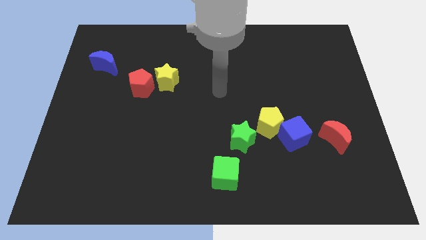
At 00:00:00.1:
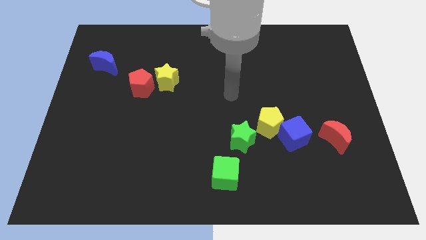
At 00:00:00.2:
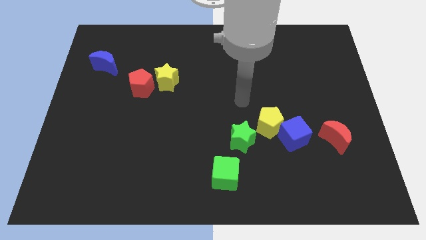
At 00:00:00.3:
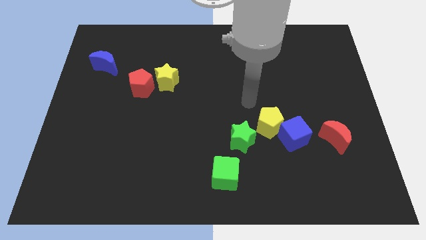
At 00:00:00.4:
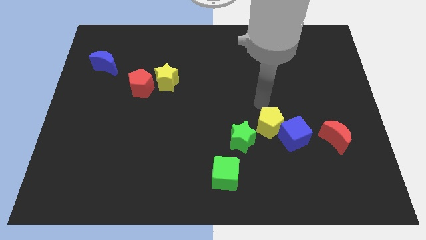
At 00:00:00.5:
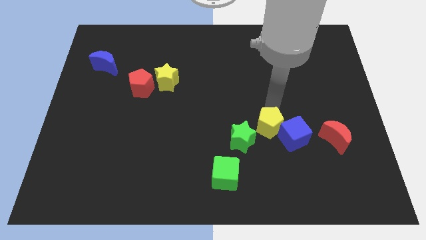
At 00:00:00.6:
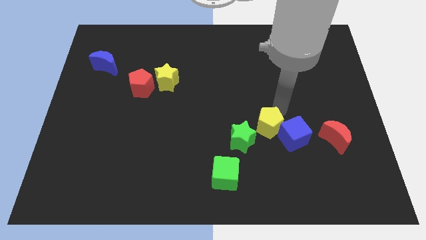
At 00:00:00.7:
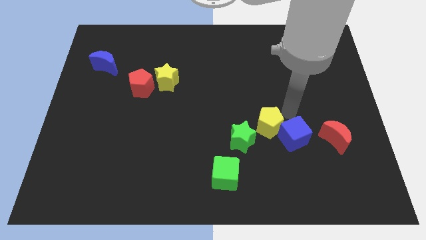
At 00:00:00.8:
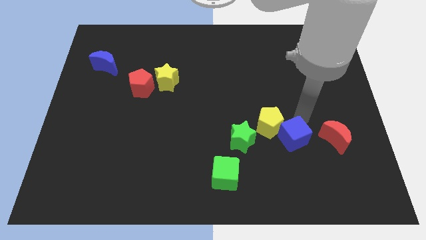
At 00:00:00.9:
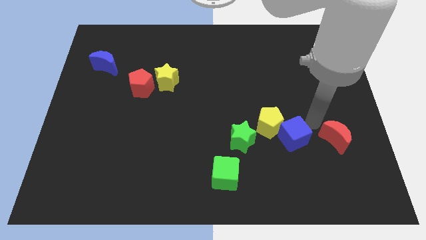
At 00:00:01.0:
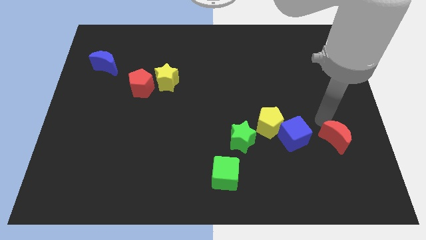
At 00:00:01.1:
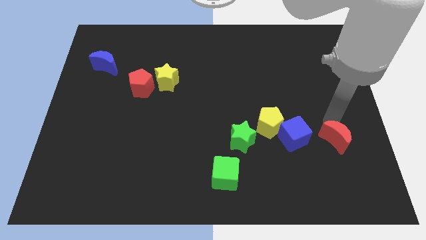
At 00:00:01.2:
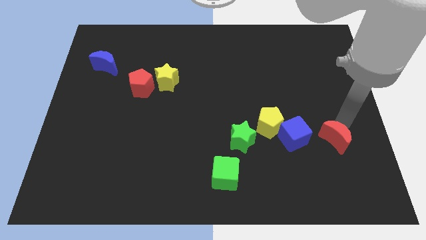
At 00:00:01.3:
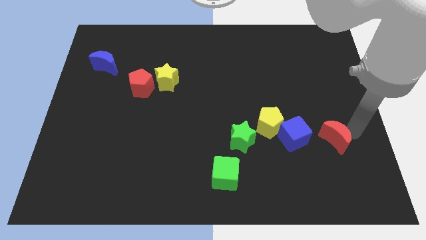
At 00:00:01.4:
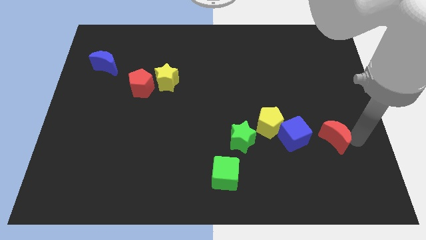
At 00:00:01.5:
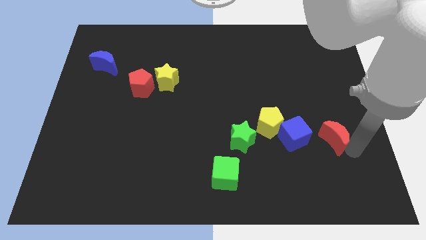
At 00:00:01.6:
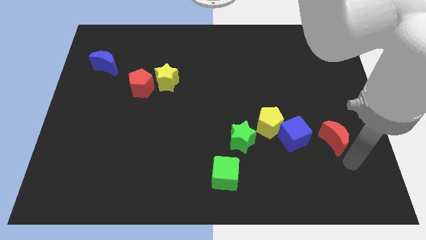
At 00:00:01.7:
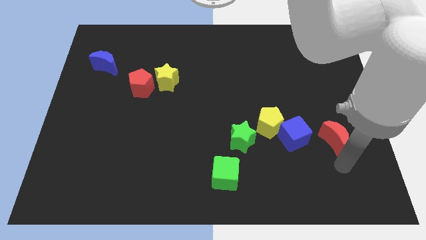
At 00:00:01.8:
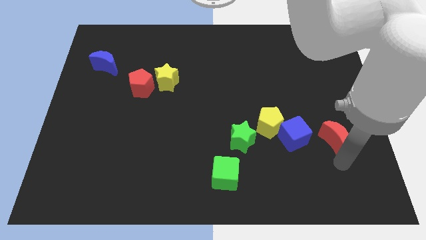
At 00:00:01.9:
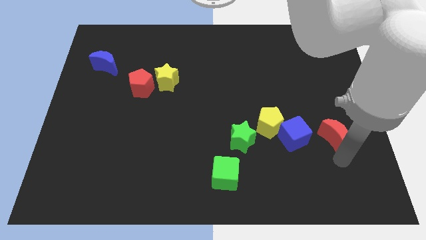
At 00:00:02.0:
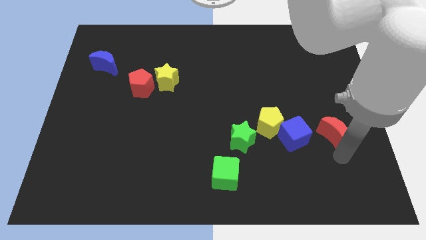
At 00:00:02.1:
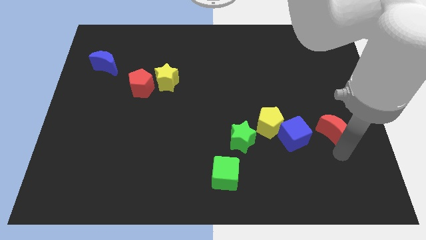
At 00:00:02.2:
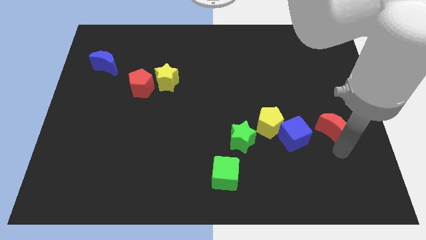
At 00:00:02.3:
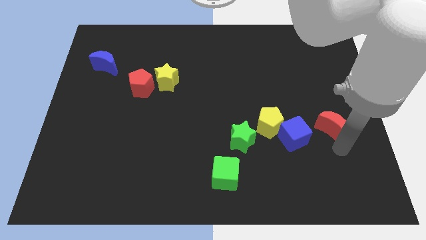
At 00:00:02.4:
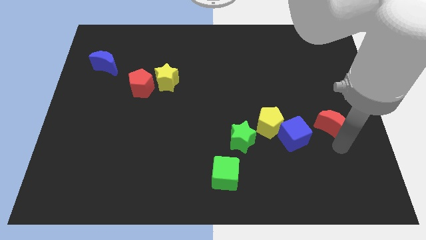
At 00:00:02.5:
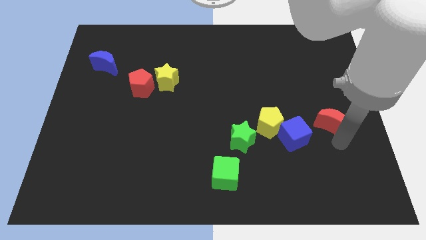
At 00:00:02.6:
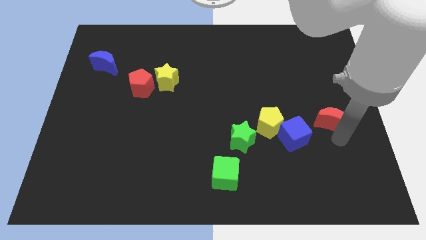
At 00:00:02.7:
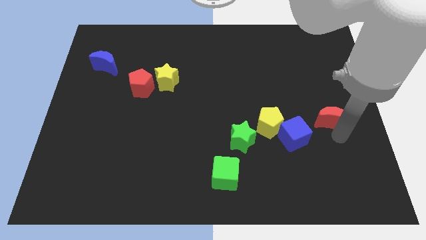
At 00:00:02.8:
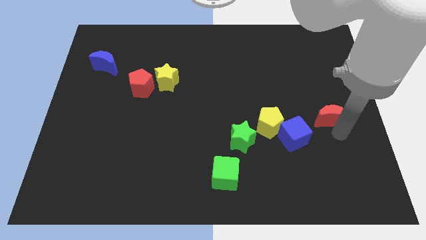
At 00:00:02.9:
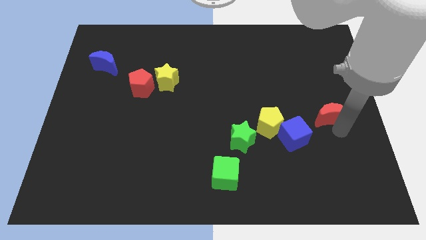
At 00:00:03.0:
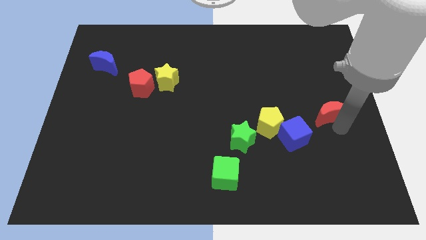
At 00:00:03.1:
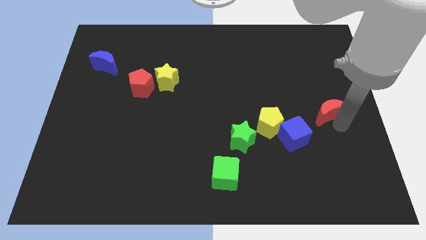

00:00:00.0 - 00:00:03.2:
slide the red moon a little up

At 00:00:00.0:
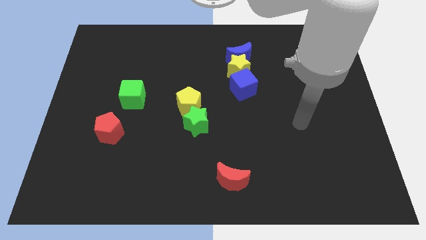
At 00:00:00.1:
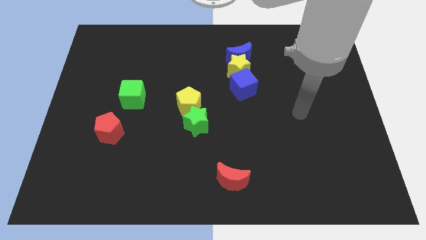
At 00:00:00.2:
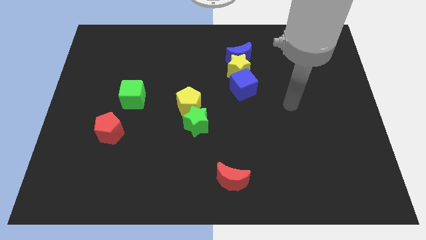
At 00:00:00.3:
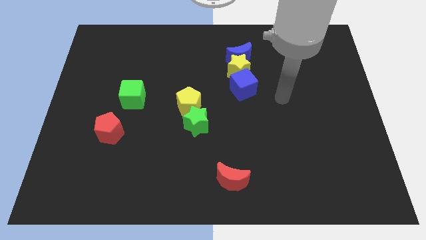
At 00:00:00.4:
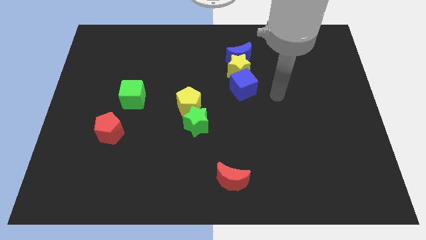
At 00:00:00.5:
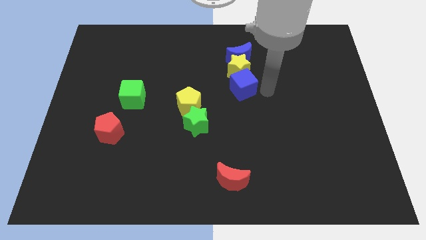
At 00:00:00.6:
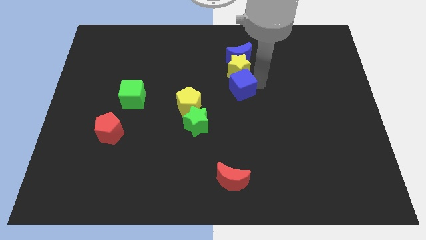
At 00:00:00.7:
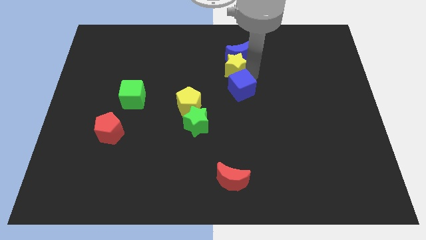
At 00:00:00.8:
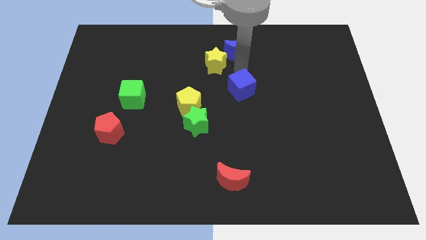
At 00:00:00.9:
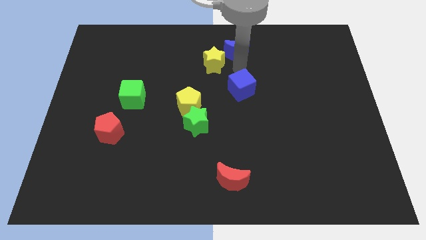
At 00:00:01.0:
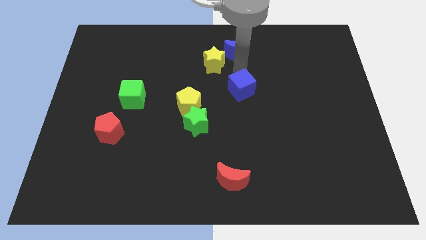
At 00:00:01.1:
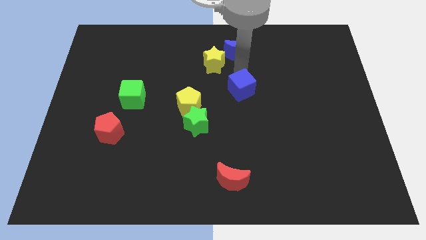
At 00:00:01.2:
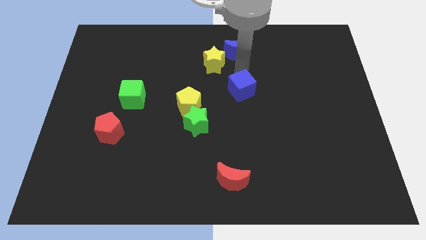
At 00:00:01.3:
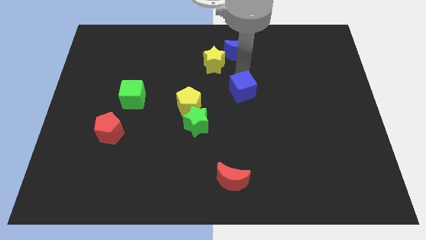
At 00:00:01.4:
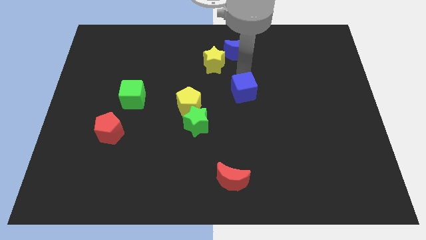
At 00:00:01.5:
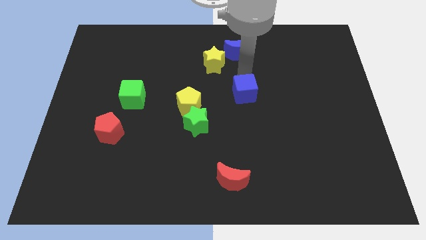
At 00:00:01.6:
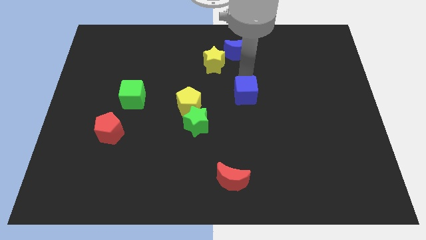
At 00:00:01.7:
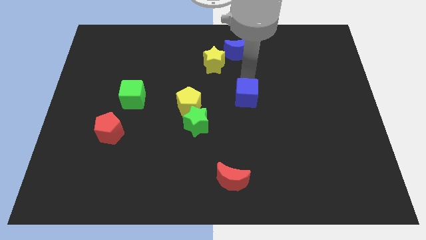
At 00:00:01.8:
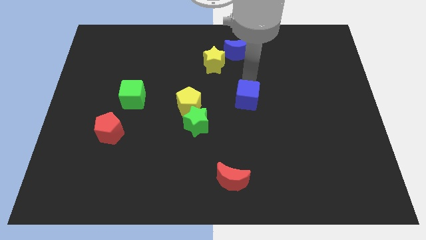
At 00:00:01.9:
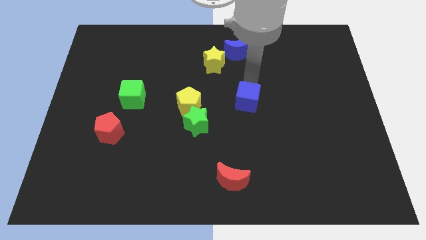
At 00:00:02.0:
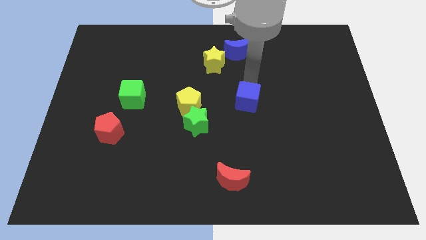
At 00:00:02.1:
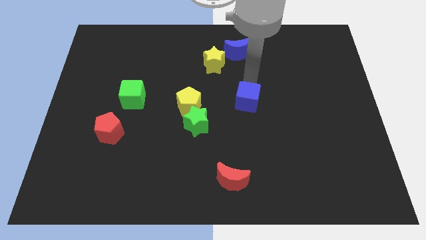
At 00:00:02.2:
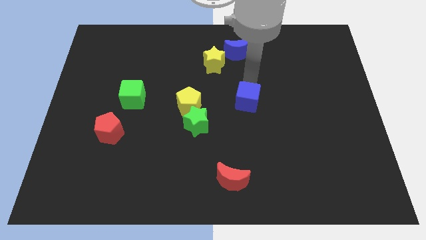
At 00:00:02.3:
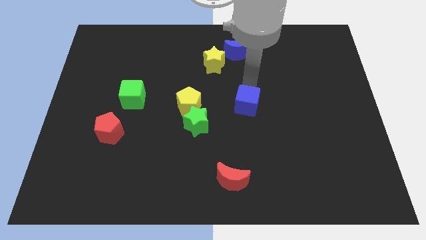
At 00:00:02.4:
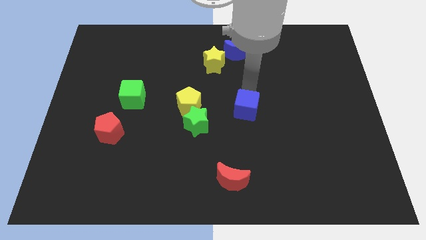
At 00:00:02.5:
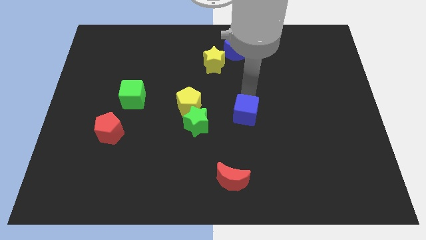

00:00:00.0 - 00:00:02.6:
slightly push the blue cube downwards

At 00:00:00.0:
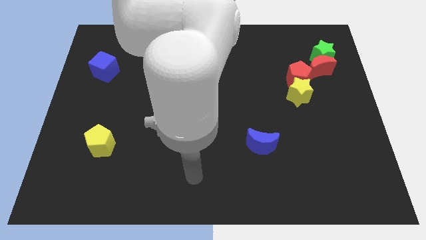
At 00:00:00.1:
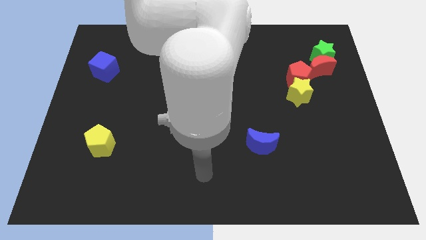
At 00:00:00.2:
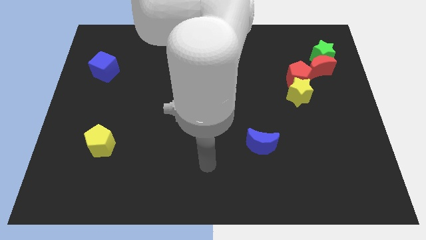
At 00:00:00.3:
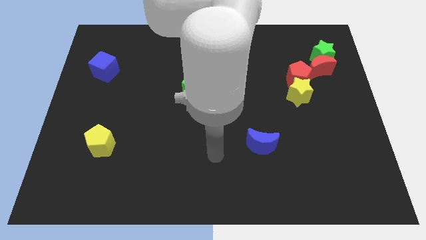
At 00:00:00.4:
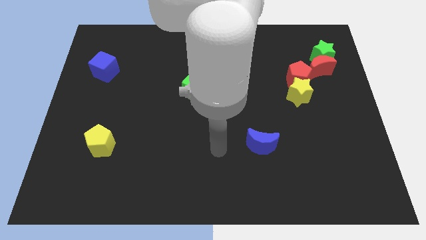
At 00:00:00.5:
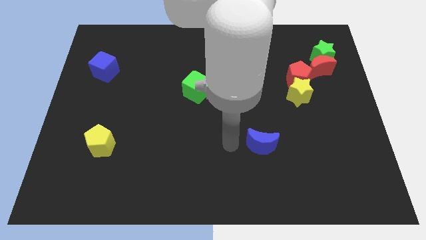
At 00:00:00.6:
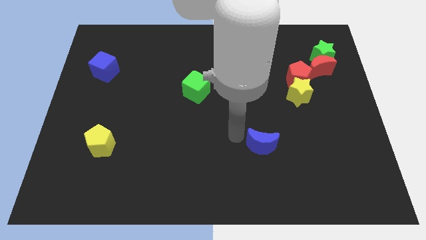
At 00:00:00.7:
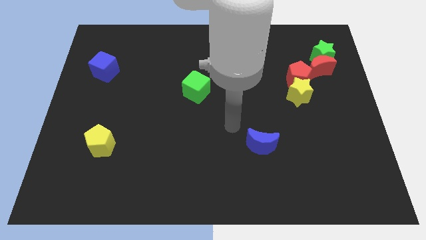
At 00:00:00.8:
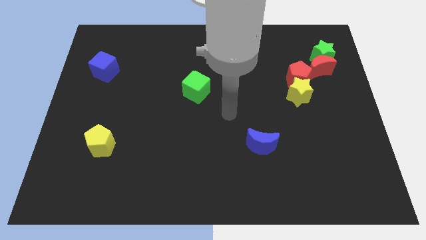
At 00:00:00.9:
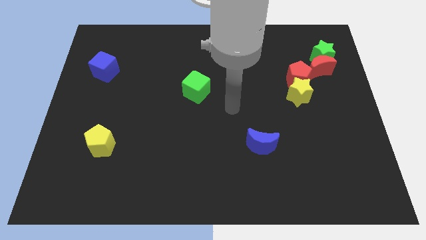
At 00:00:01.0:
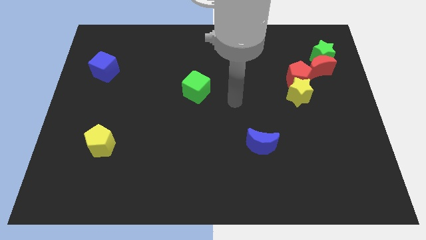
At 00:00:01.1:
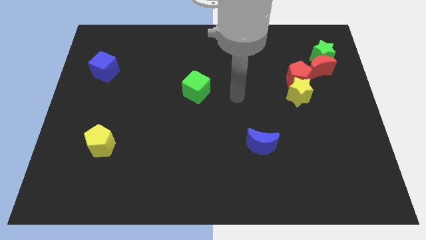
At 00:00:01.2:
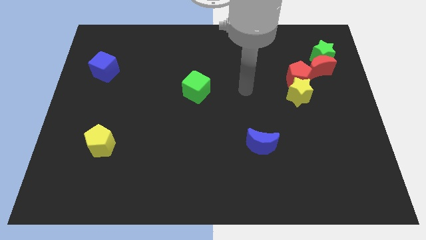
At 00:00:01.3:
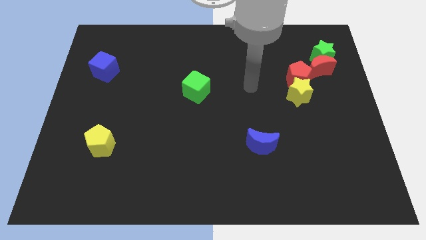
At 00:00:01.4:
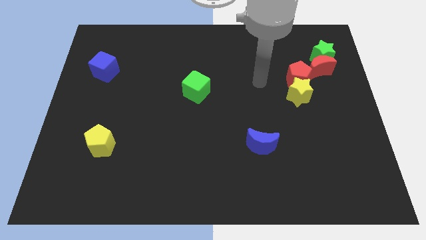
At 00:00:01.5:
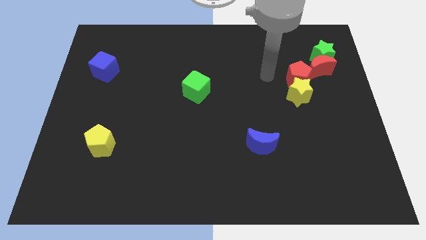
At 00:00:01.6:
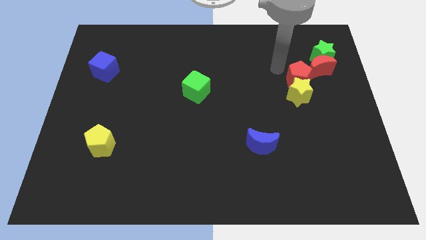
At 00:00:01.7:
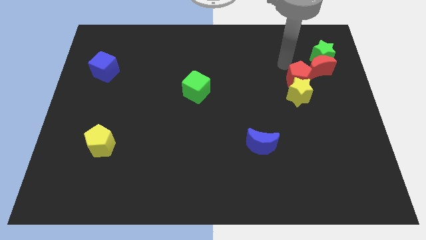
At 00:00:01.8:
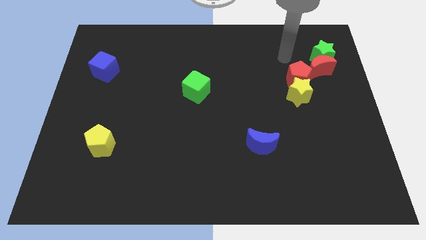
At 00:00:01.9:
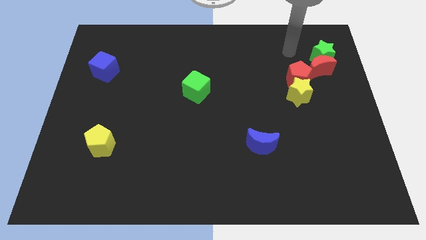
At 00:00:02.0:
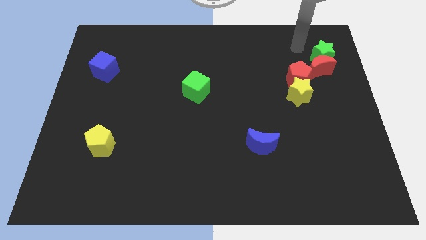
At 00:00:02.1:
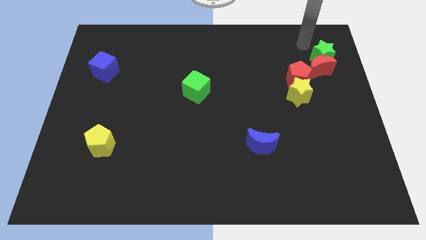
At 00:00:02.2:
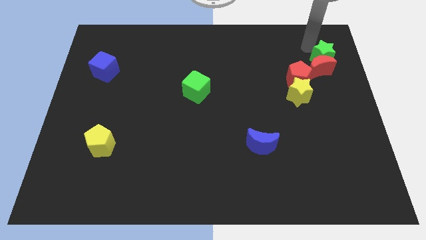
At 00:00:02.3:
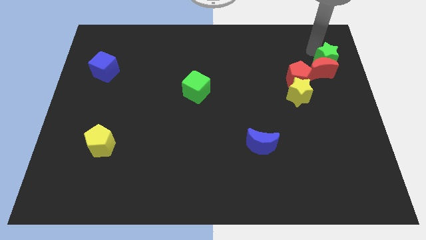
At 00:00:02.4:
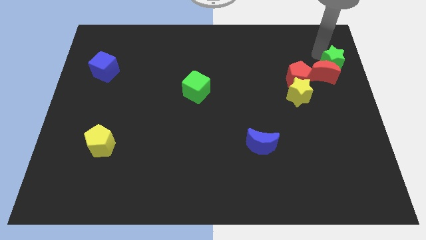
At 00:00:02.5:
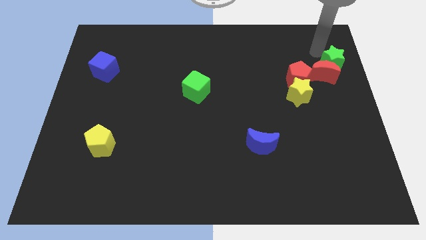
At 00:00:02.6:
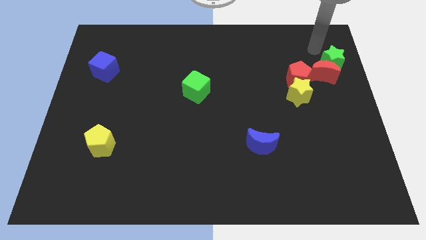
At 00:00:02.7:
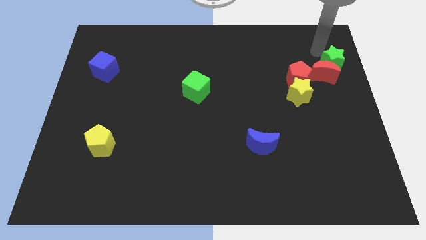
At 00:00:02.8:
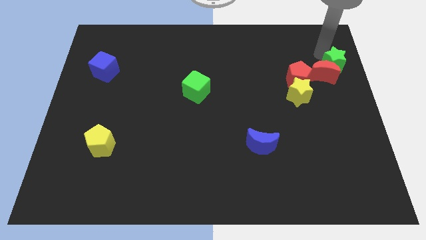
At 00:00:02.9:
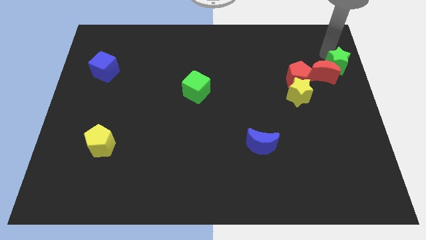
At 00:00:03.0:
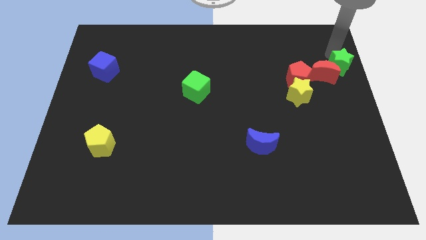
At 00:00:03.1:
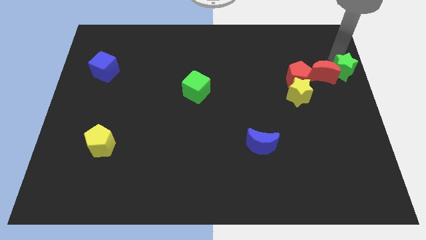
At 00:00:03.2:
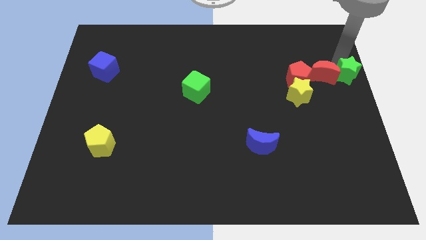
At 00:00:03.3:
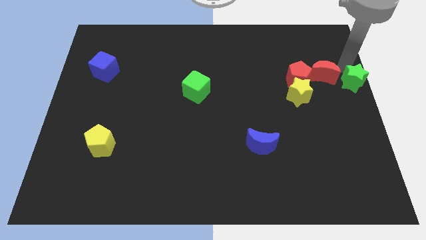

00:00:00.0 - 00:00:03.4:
push the green star downwards slightly
